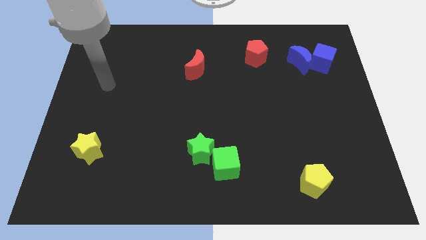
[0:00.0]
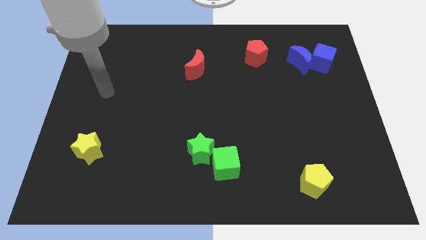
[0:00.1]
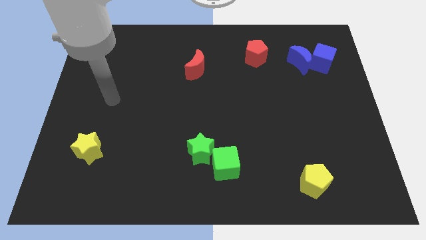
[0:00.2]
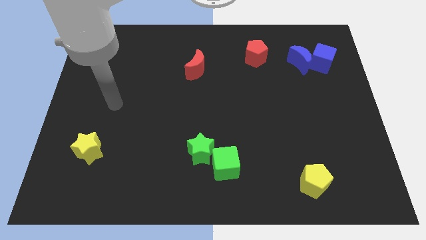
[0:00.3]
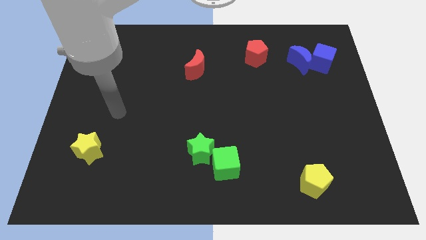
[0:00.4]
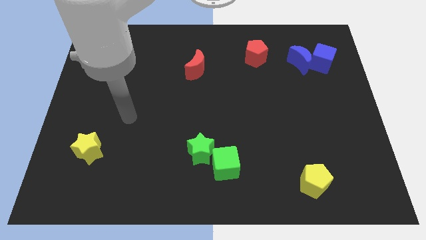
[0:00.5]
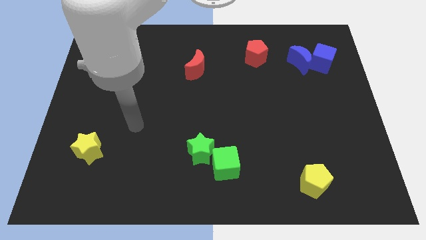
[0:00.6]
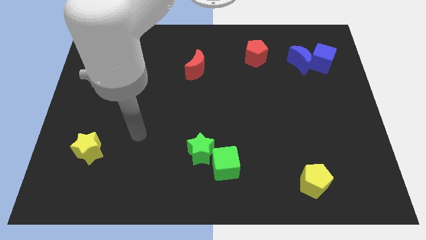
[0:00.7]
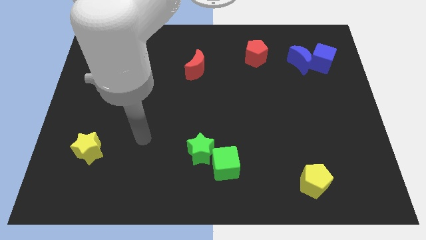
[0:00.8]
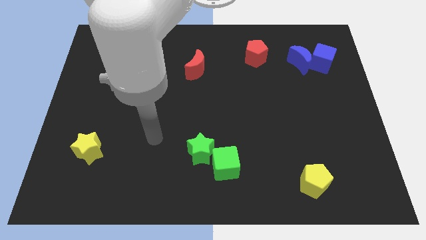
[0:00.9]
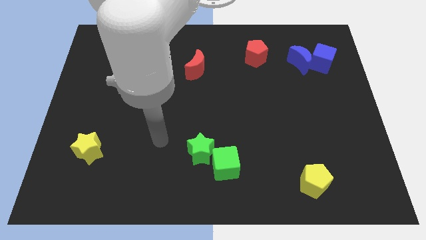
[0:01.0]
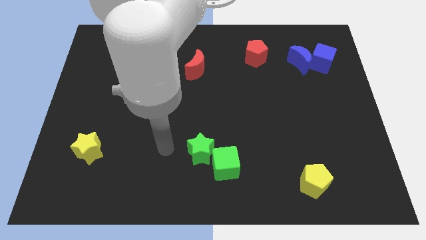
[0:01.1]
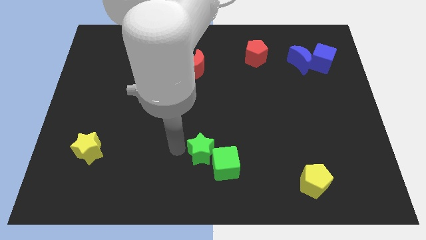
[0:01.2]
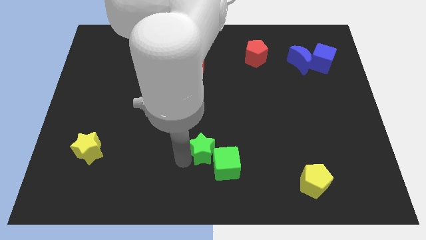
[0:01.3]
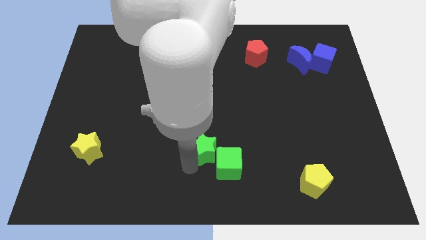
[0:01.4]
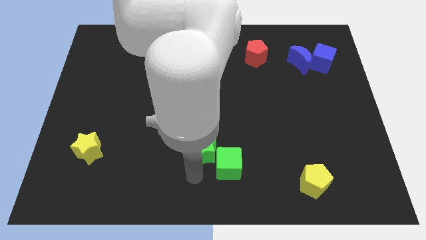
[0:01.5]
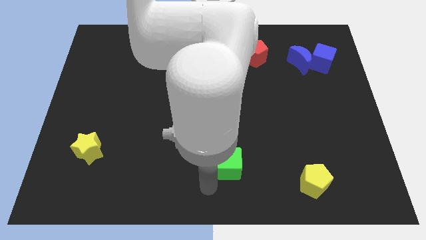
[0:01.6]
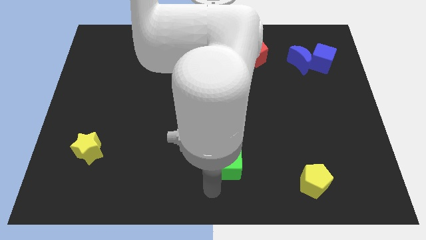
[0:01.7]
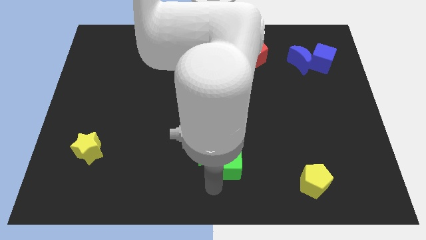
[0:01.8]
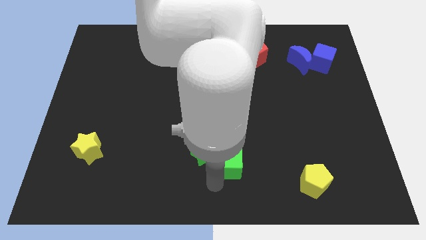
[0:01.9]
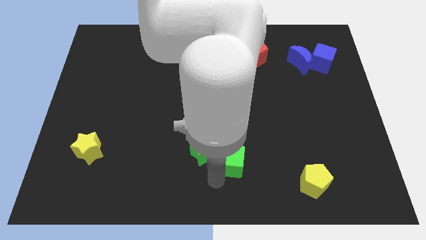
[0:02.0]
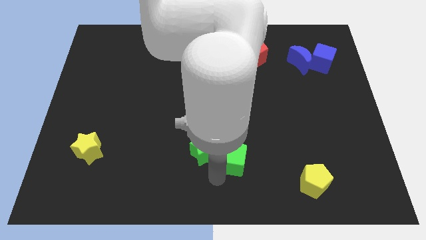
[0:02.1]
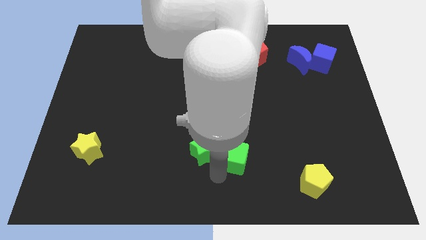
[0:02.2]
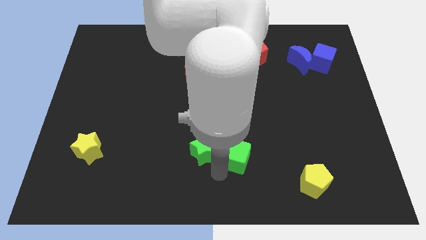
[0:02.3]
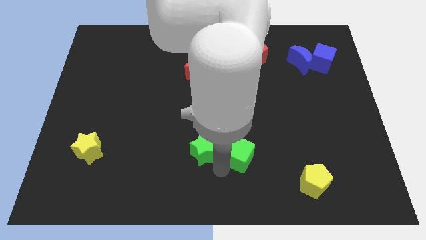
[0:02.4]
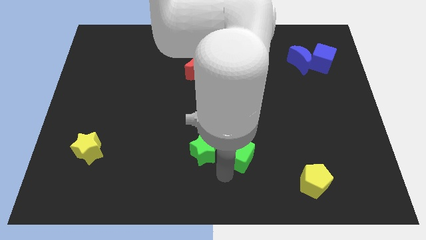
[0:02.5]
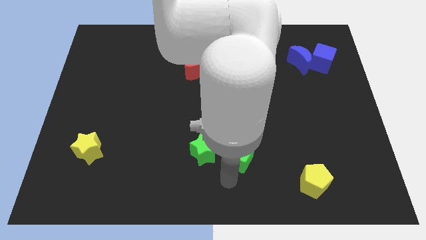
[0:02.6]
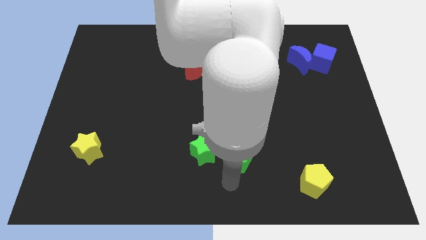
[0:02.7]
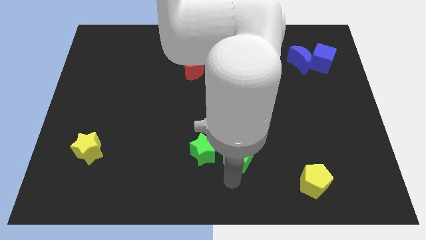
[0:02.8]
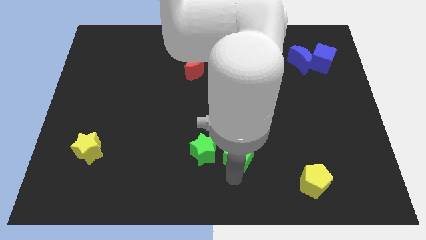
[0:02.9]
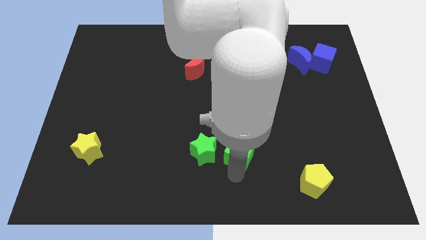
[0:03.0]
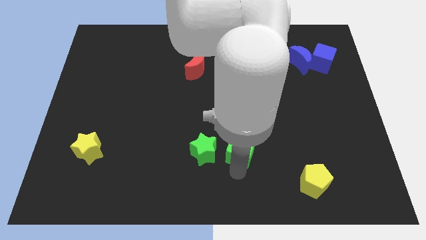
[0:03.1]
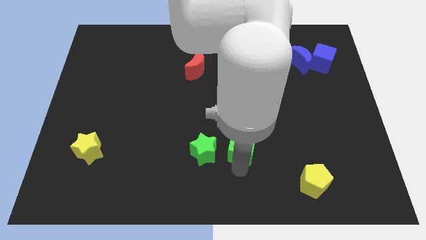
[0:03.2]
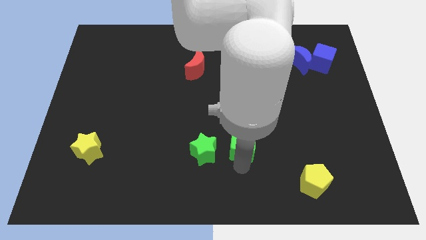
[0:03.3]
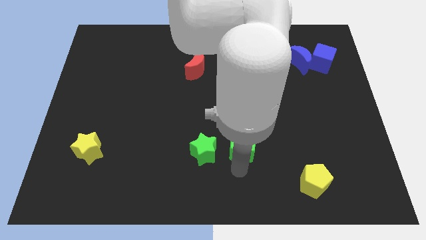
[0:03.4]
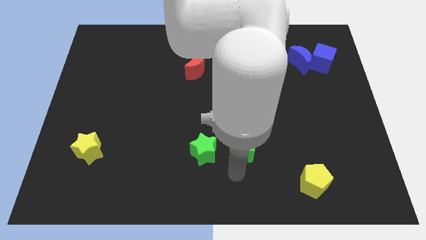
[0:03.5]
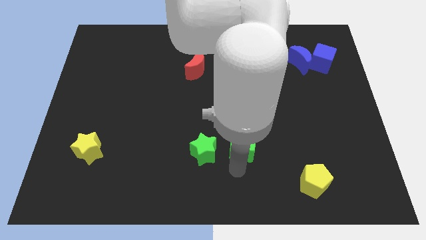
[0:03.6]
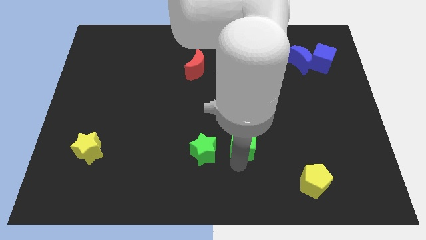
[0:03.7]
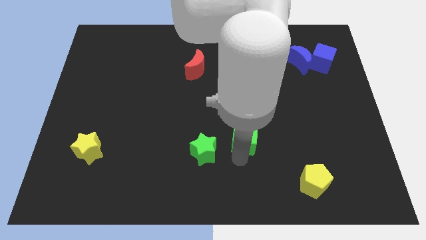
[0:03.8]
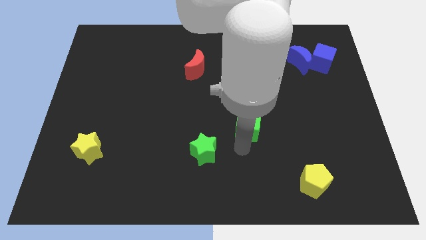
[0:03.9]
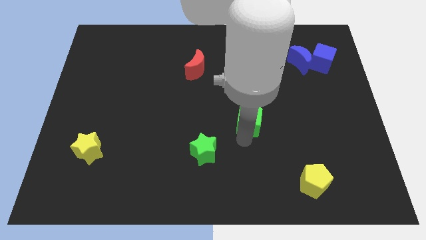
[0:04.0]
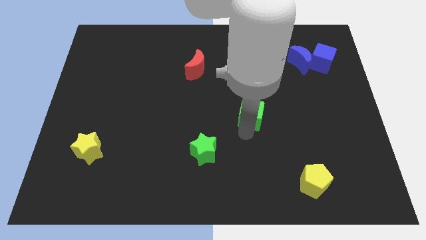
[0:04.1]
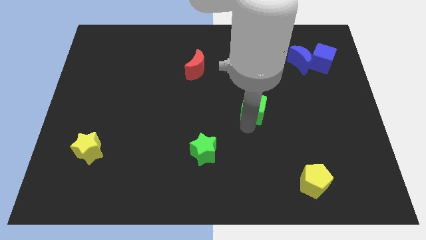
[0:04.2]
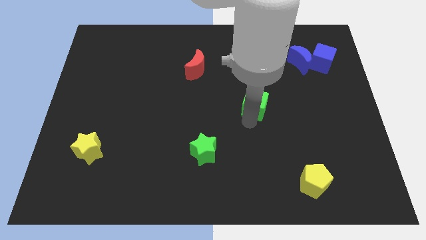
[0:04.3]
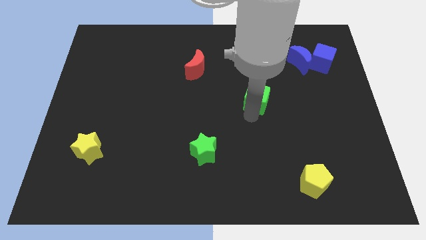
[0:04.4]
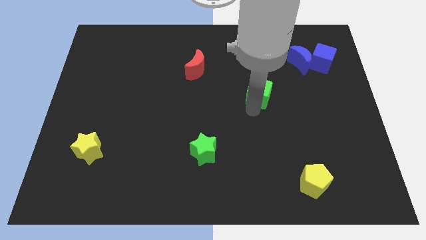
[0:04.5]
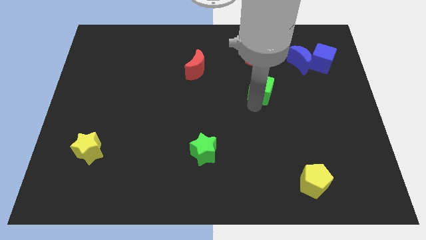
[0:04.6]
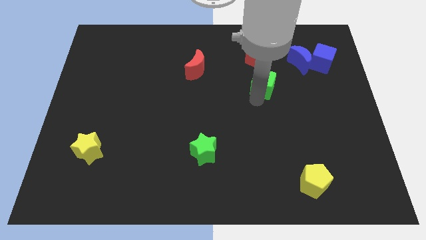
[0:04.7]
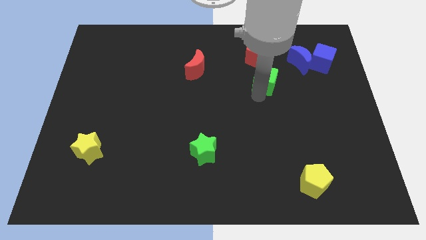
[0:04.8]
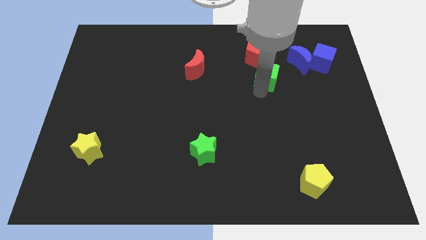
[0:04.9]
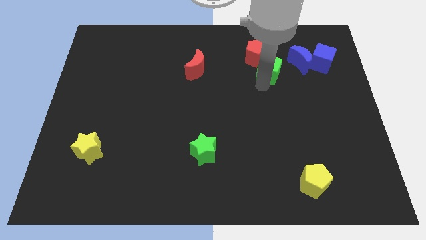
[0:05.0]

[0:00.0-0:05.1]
move the green cube left of the blue cube

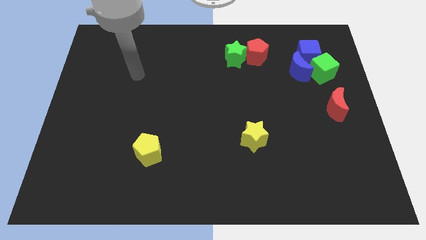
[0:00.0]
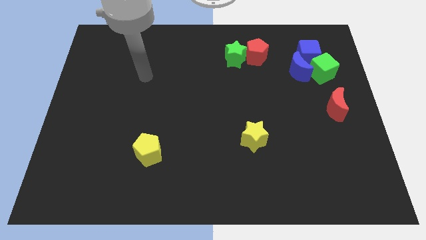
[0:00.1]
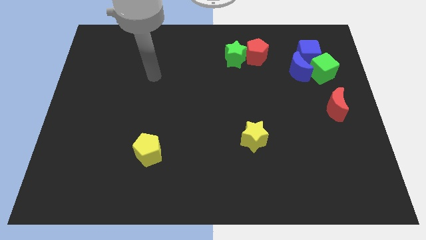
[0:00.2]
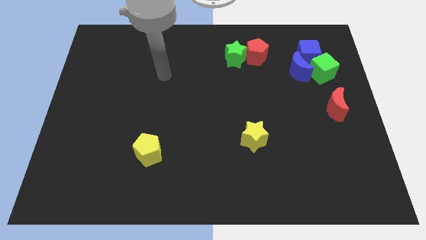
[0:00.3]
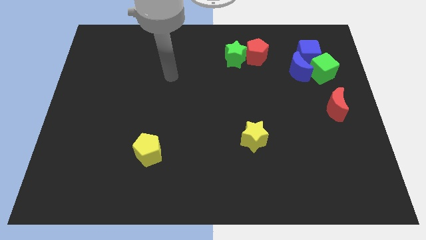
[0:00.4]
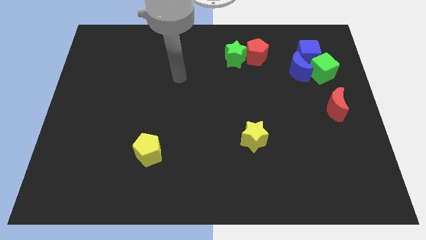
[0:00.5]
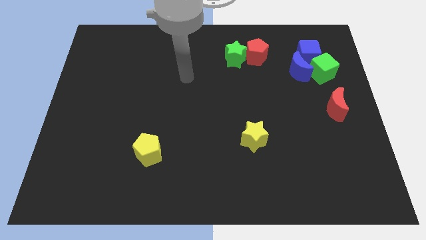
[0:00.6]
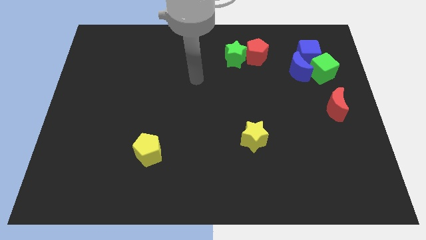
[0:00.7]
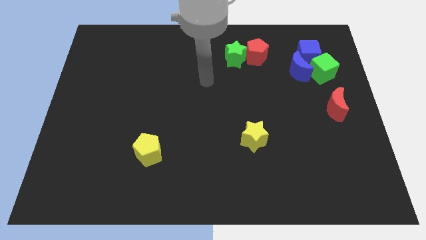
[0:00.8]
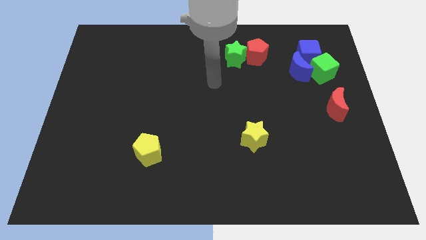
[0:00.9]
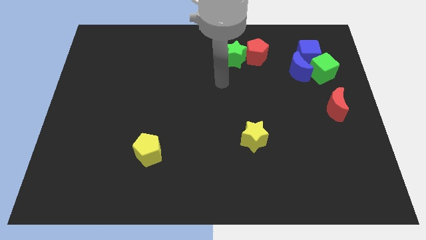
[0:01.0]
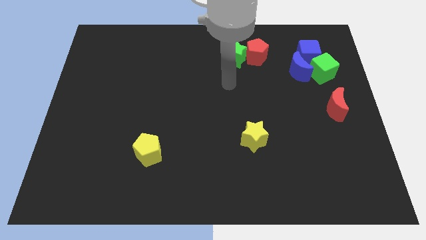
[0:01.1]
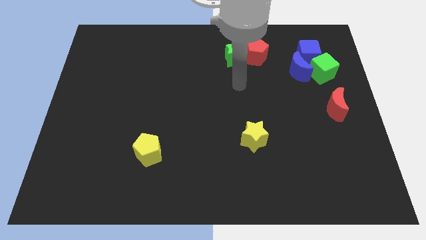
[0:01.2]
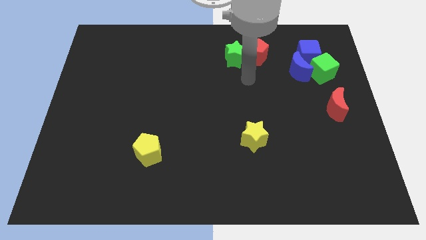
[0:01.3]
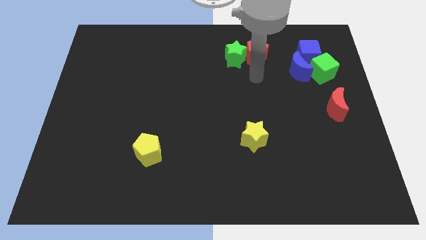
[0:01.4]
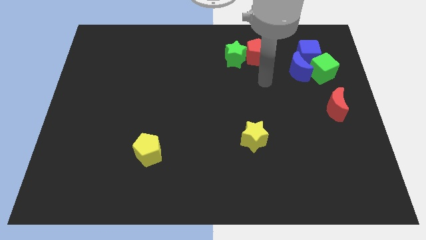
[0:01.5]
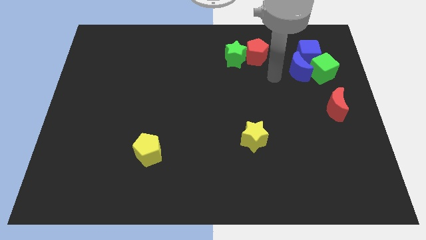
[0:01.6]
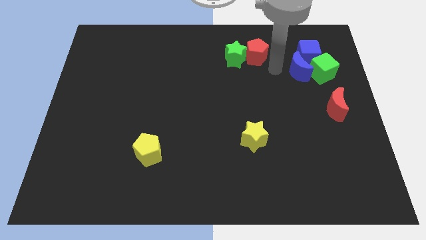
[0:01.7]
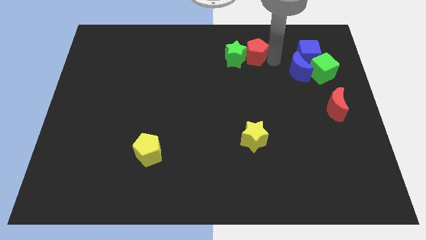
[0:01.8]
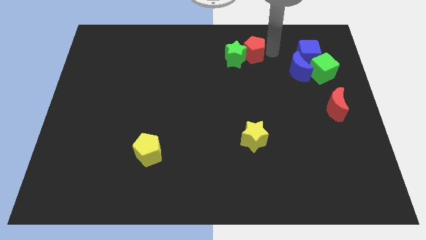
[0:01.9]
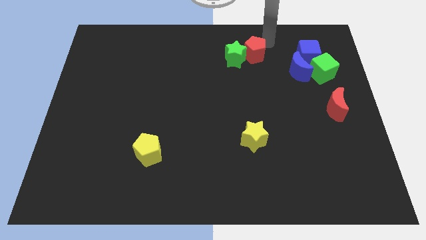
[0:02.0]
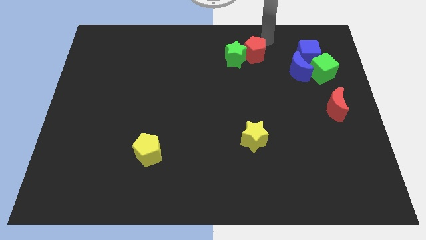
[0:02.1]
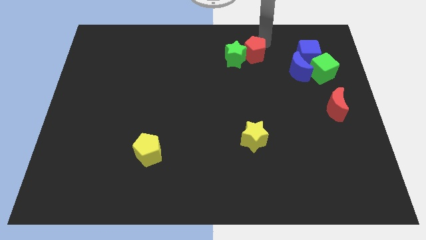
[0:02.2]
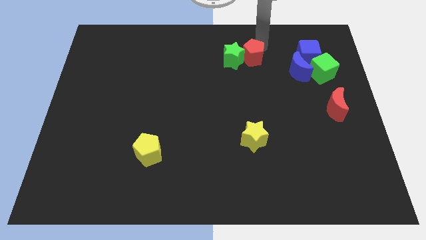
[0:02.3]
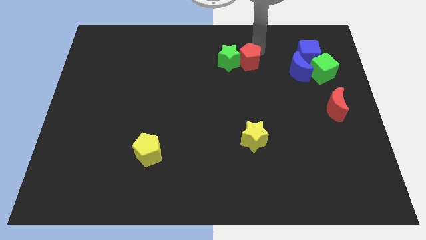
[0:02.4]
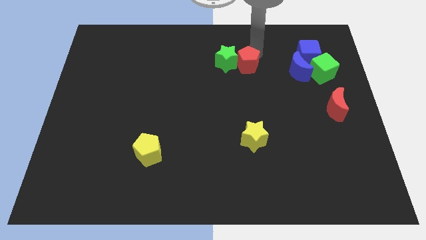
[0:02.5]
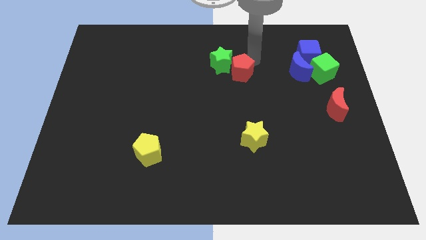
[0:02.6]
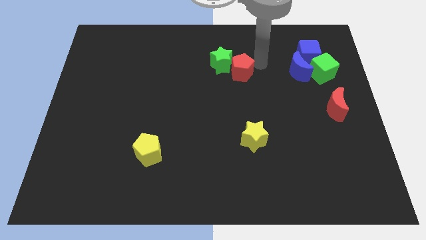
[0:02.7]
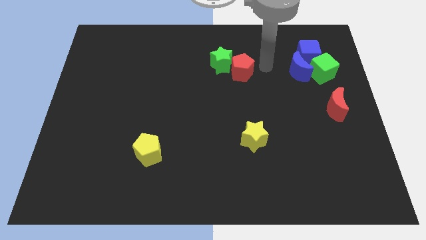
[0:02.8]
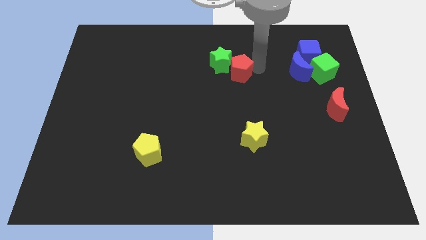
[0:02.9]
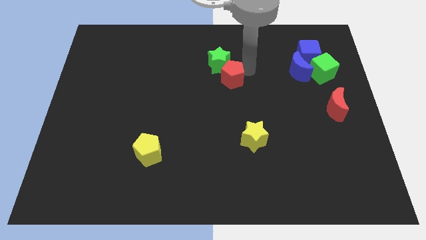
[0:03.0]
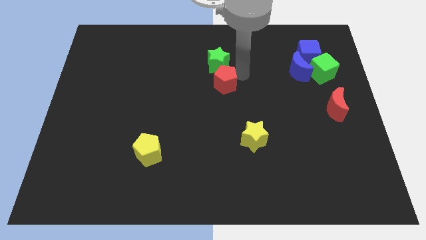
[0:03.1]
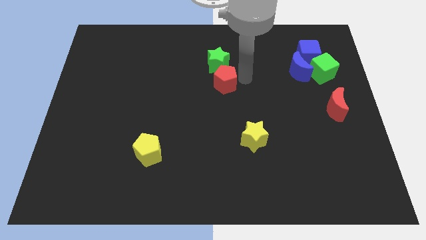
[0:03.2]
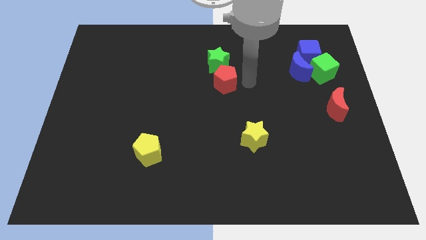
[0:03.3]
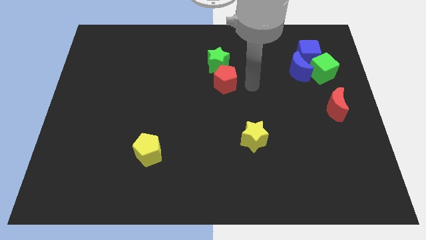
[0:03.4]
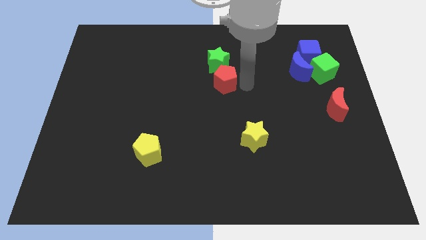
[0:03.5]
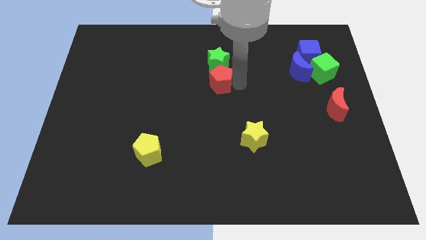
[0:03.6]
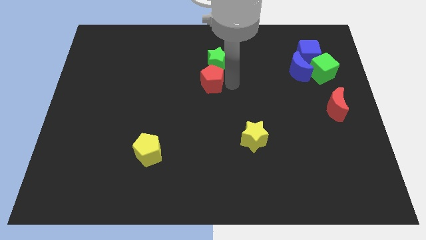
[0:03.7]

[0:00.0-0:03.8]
put the red pentagon diagonally down and to the left of the green star
